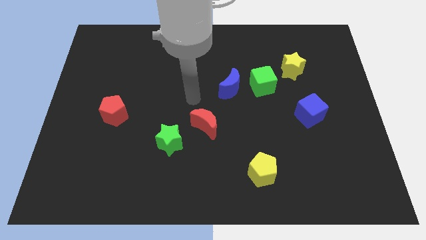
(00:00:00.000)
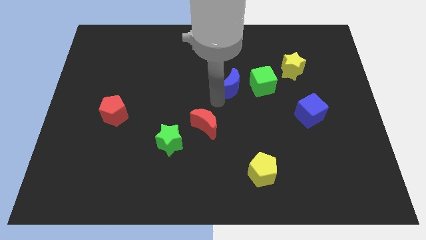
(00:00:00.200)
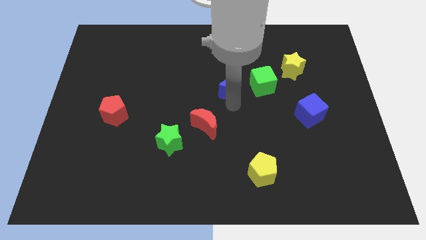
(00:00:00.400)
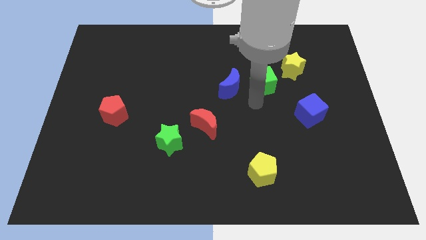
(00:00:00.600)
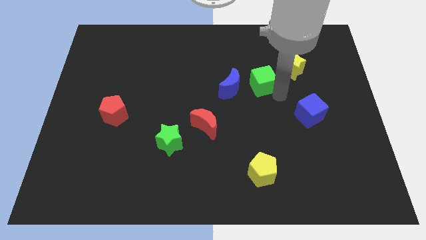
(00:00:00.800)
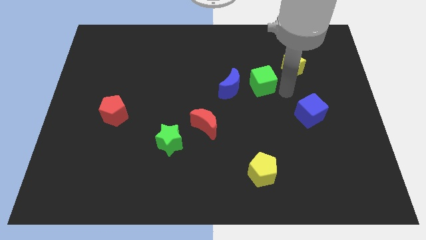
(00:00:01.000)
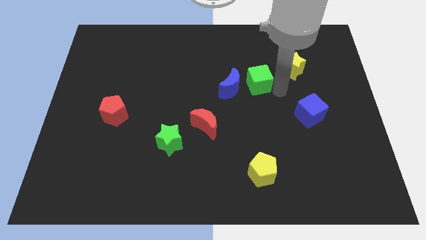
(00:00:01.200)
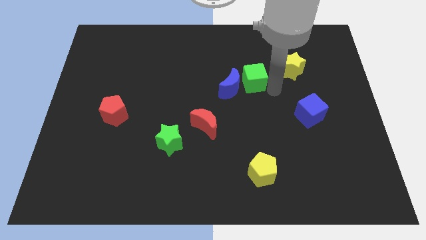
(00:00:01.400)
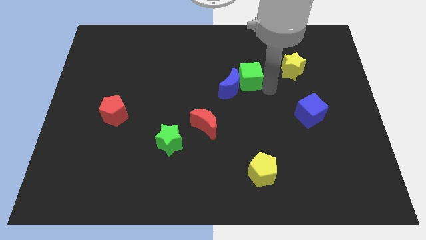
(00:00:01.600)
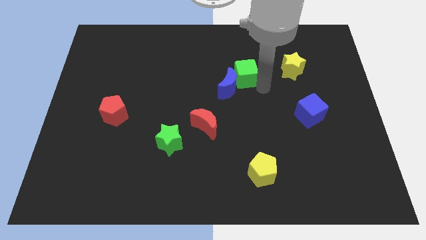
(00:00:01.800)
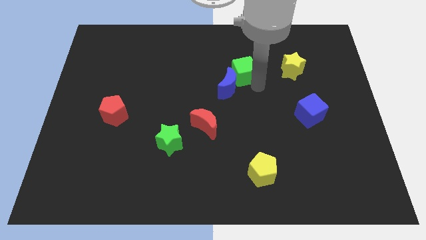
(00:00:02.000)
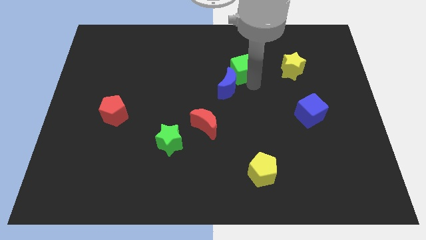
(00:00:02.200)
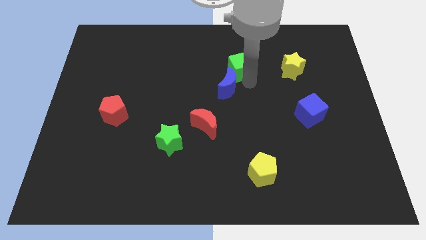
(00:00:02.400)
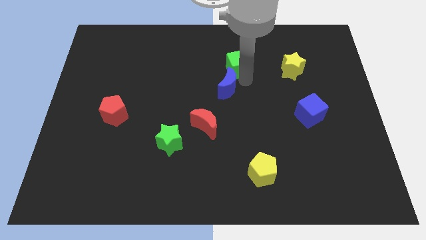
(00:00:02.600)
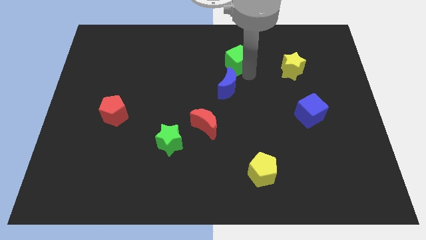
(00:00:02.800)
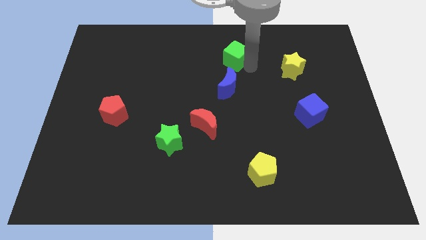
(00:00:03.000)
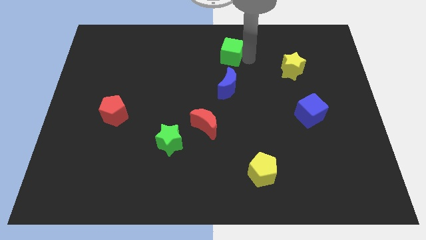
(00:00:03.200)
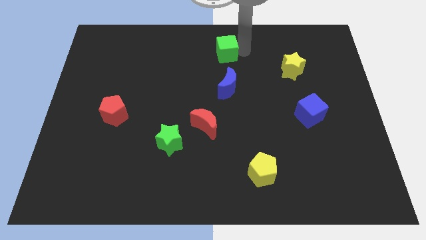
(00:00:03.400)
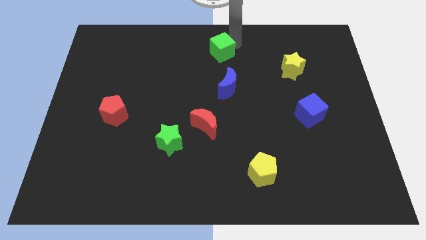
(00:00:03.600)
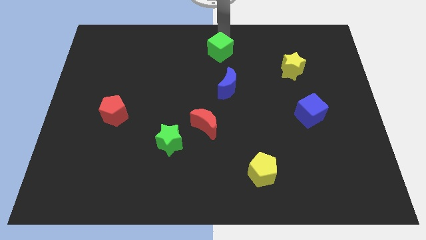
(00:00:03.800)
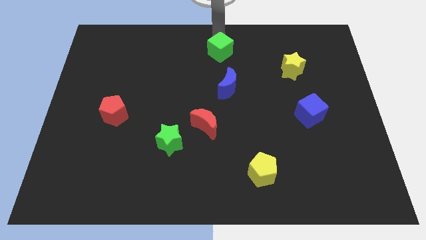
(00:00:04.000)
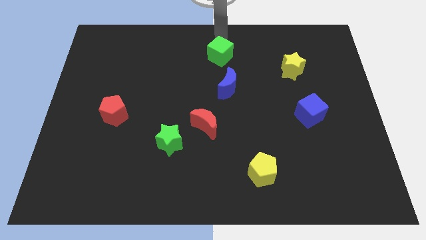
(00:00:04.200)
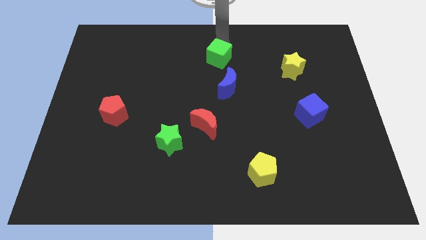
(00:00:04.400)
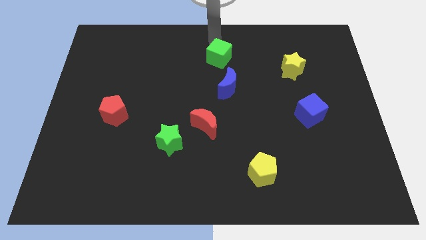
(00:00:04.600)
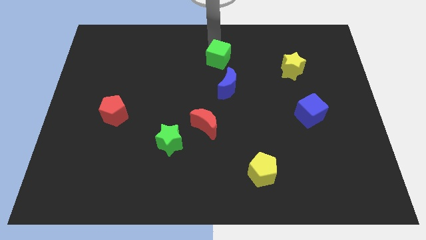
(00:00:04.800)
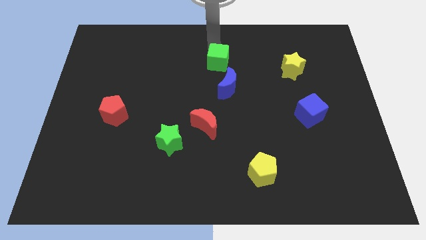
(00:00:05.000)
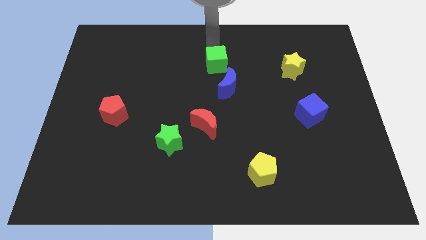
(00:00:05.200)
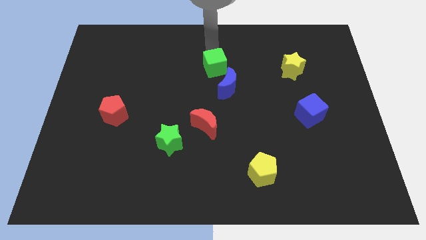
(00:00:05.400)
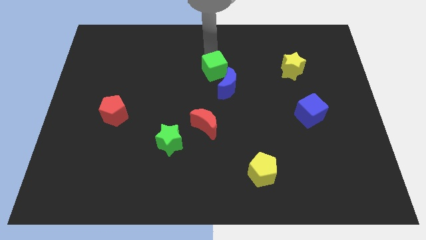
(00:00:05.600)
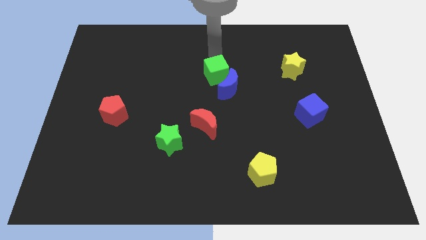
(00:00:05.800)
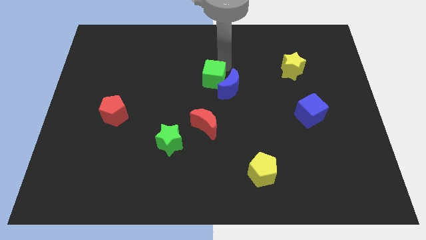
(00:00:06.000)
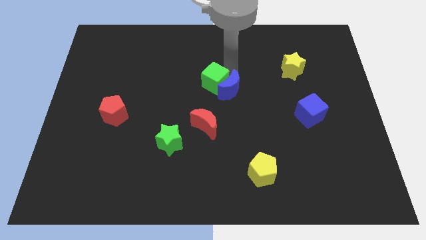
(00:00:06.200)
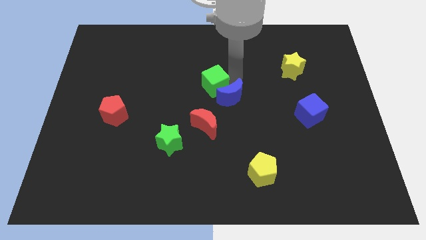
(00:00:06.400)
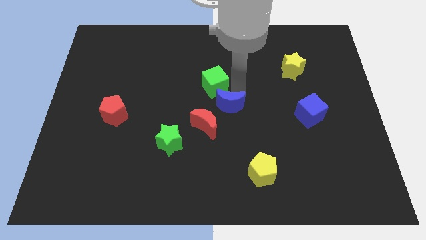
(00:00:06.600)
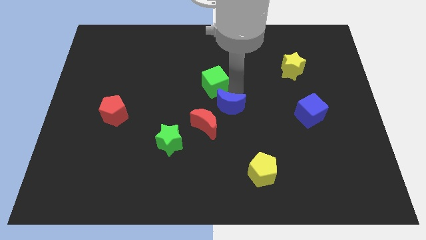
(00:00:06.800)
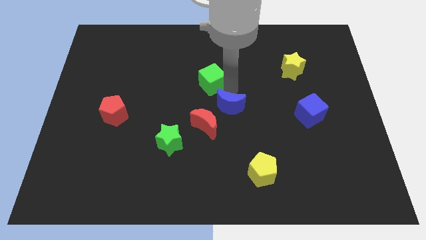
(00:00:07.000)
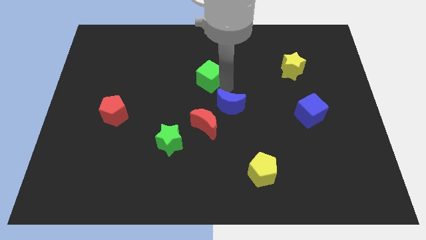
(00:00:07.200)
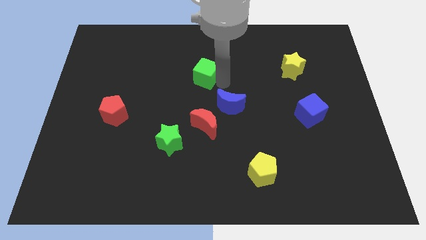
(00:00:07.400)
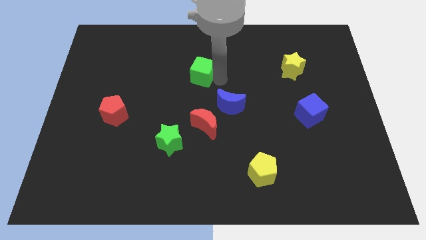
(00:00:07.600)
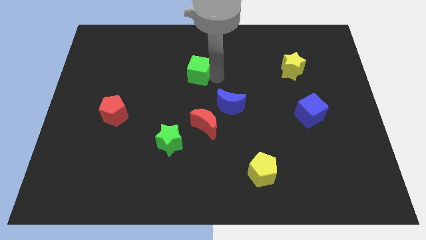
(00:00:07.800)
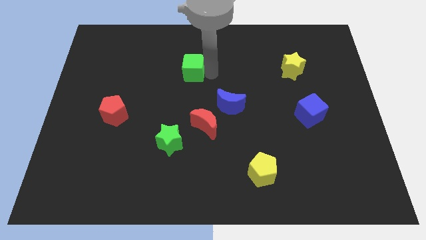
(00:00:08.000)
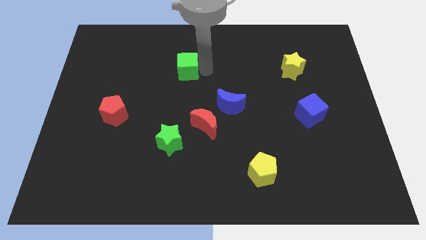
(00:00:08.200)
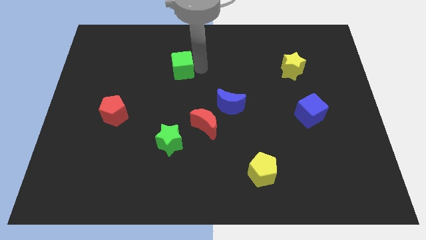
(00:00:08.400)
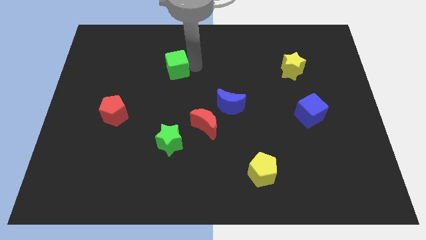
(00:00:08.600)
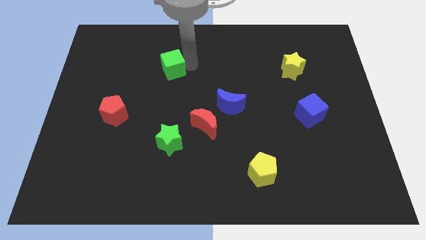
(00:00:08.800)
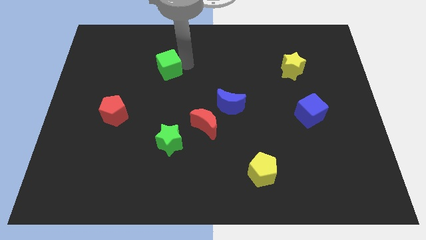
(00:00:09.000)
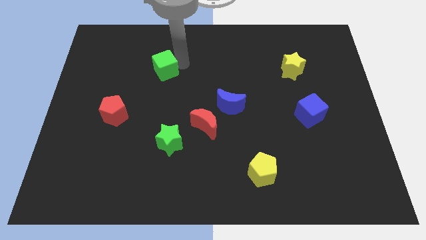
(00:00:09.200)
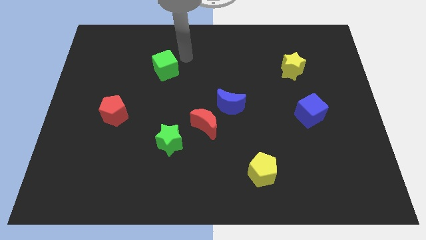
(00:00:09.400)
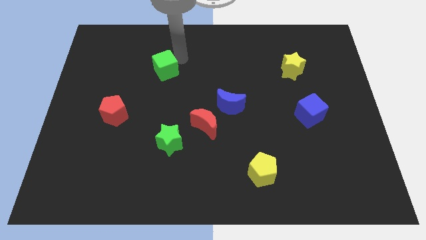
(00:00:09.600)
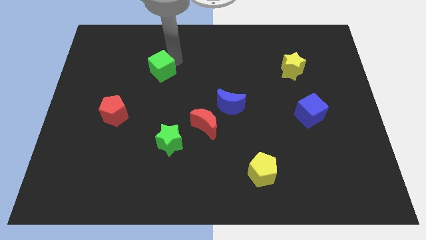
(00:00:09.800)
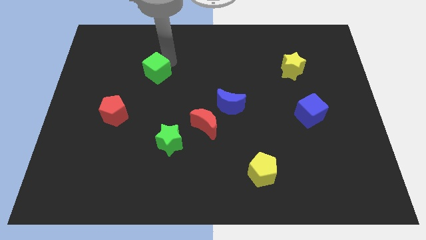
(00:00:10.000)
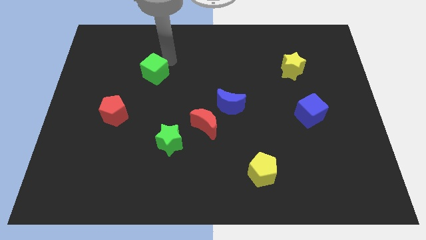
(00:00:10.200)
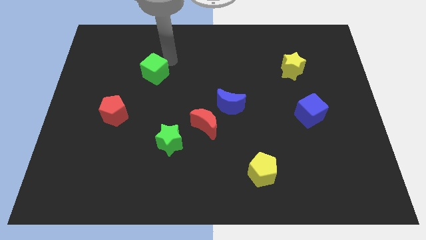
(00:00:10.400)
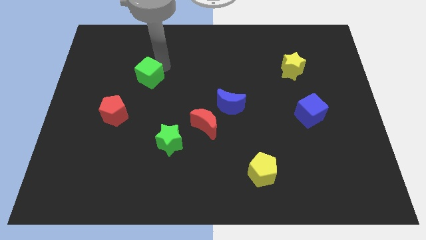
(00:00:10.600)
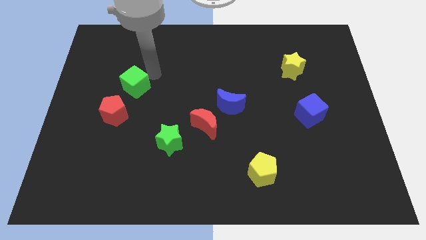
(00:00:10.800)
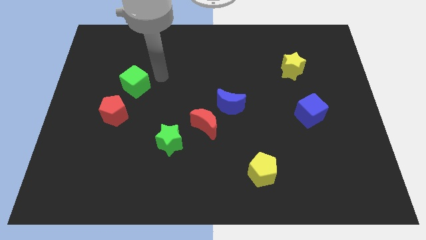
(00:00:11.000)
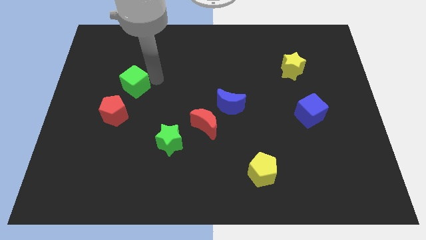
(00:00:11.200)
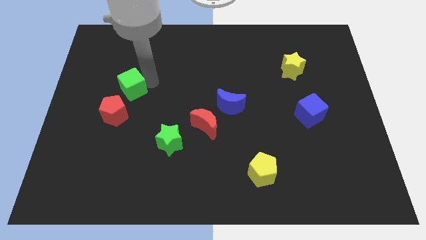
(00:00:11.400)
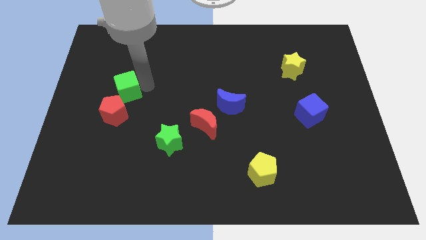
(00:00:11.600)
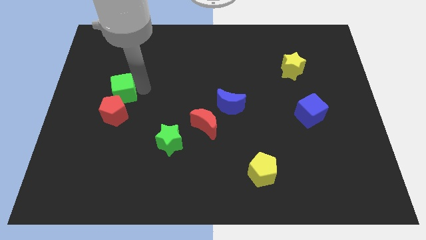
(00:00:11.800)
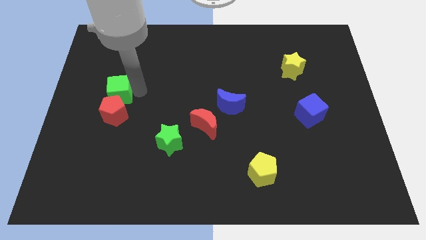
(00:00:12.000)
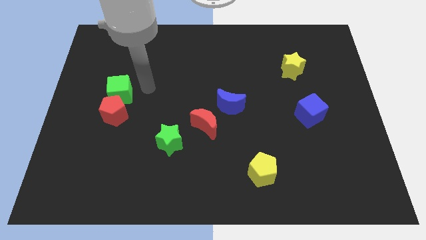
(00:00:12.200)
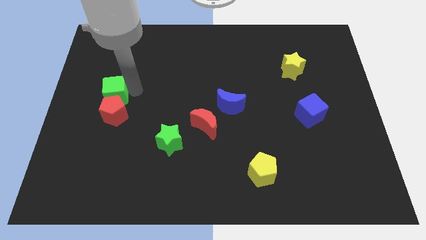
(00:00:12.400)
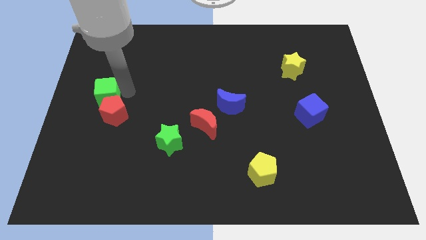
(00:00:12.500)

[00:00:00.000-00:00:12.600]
slide the green cube to the left side of the board

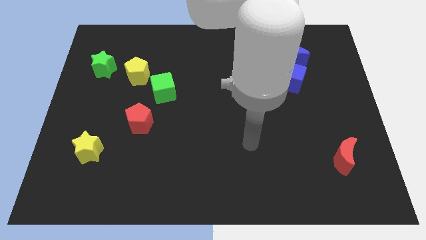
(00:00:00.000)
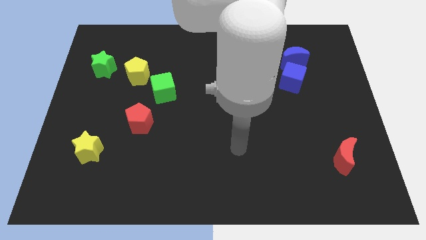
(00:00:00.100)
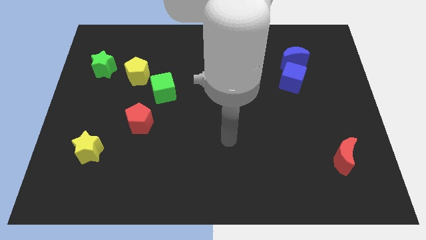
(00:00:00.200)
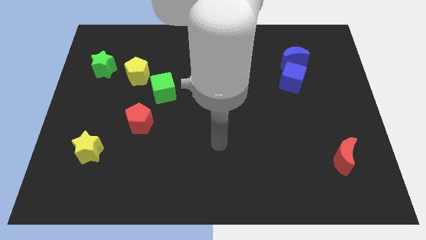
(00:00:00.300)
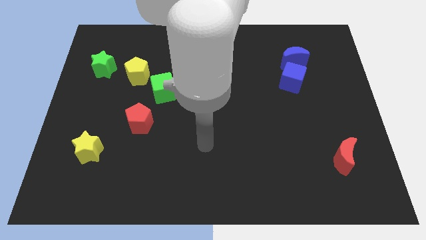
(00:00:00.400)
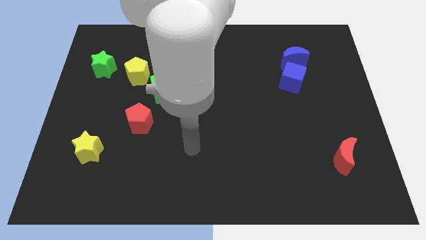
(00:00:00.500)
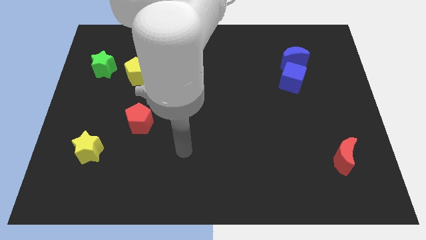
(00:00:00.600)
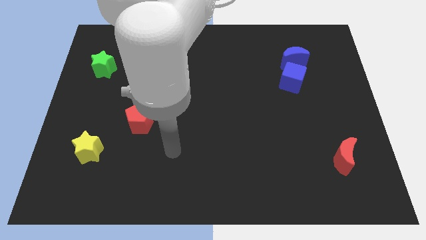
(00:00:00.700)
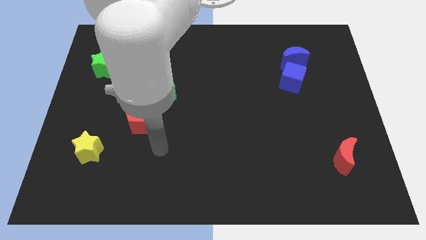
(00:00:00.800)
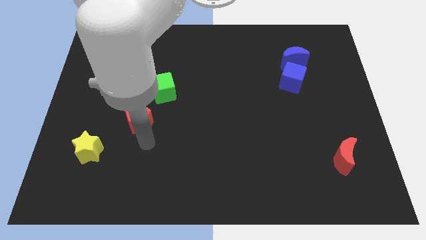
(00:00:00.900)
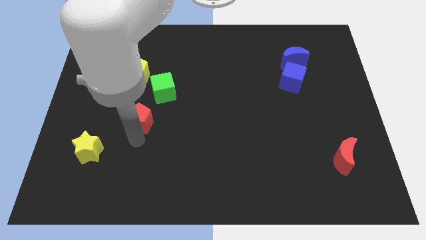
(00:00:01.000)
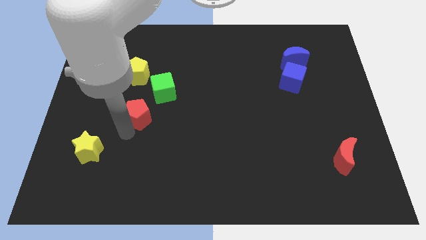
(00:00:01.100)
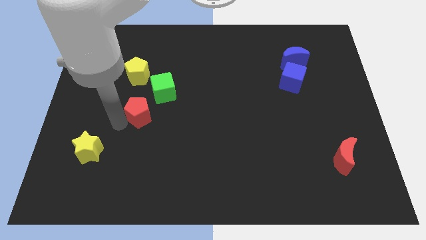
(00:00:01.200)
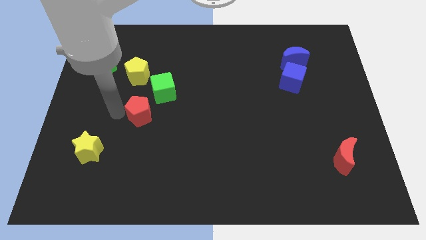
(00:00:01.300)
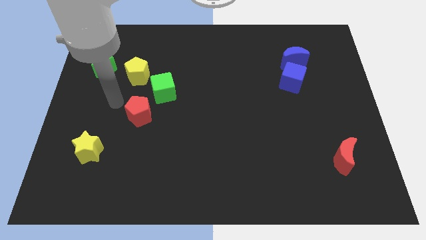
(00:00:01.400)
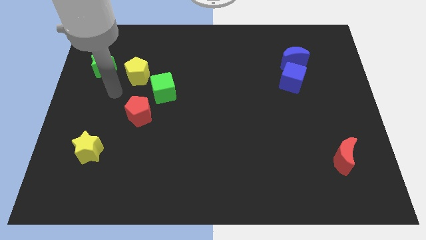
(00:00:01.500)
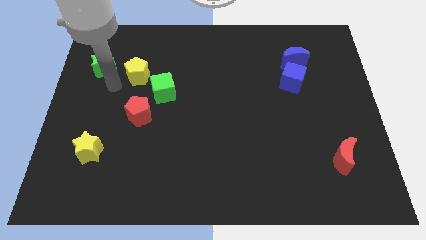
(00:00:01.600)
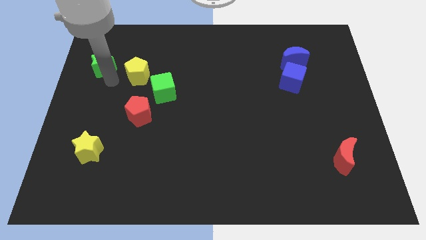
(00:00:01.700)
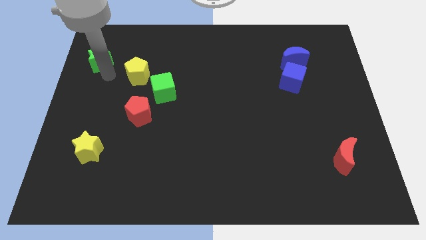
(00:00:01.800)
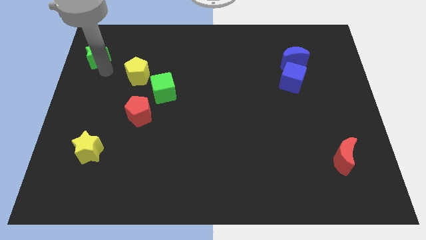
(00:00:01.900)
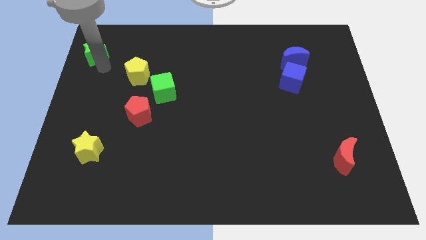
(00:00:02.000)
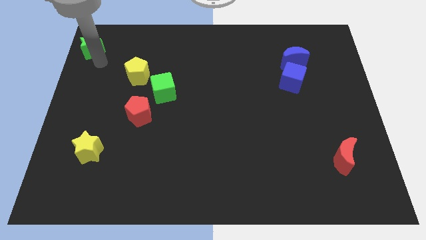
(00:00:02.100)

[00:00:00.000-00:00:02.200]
push the green star to the top left corner
